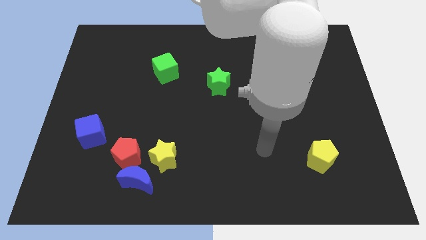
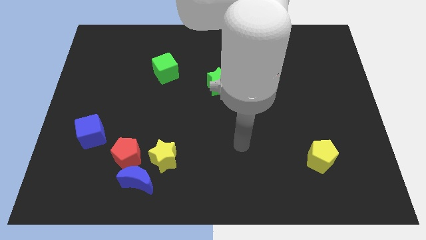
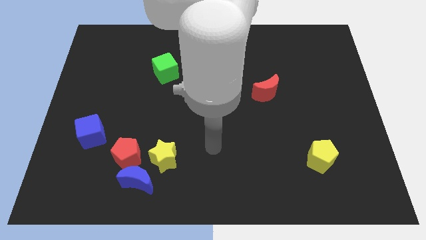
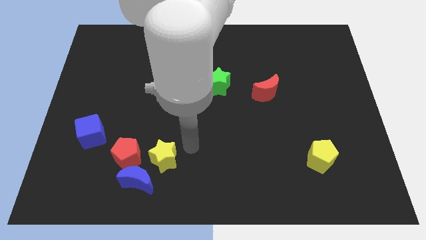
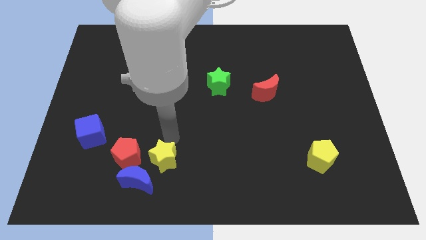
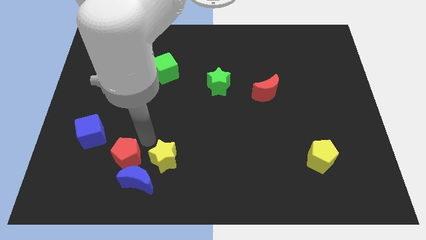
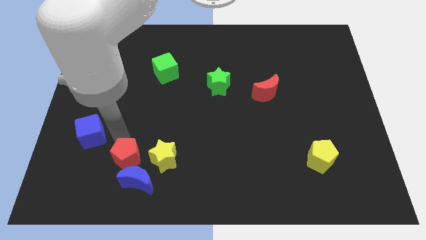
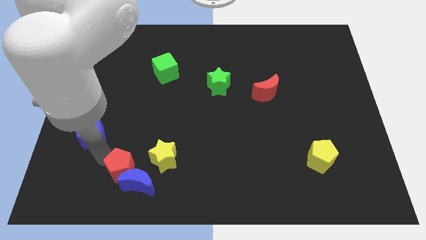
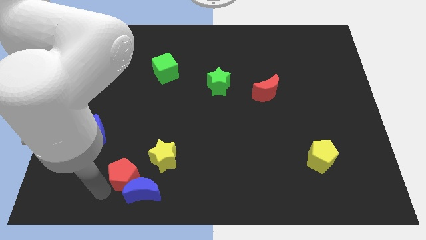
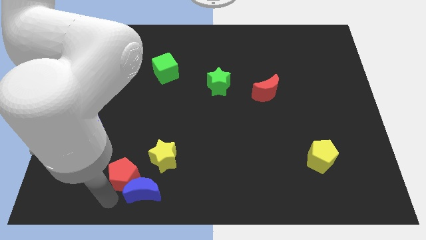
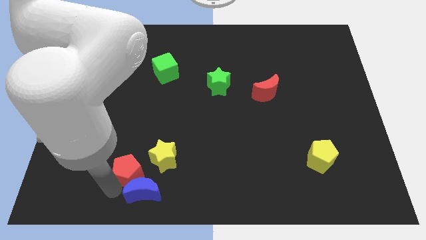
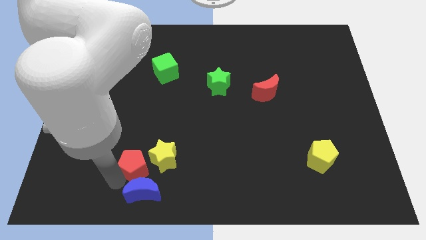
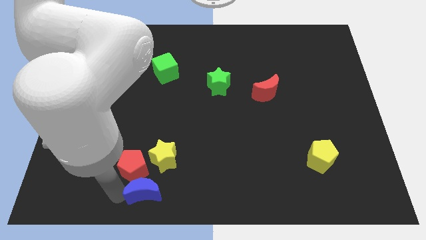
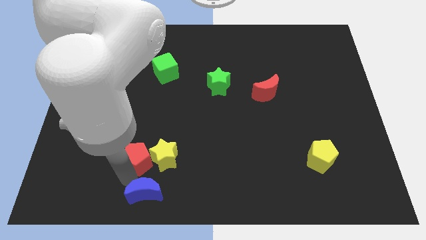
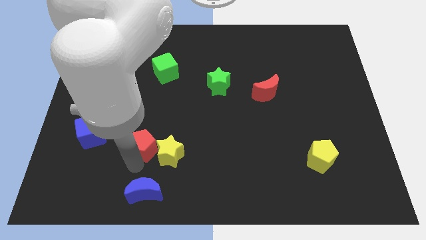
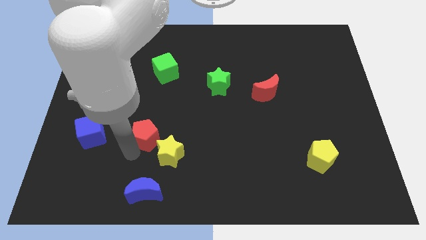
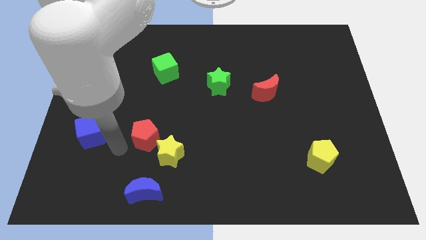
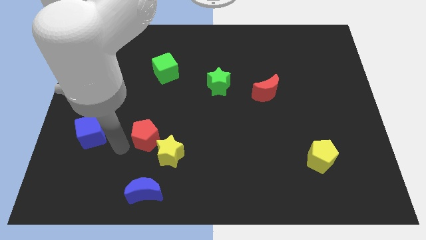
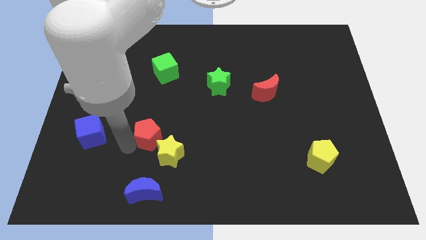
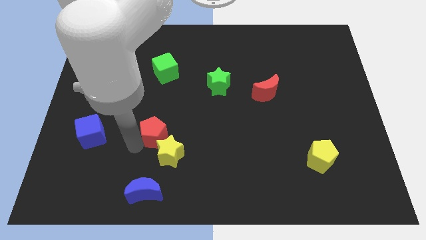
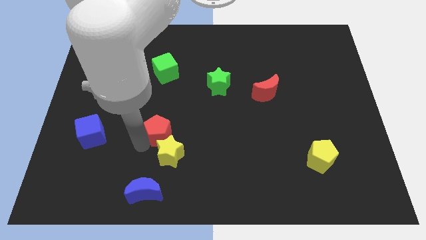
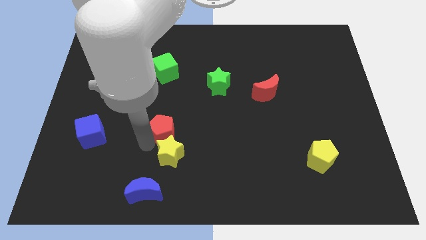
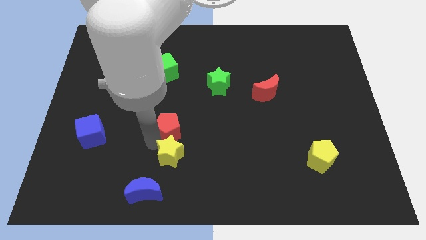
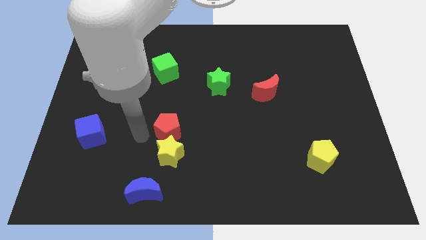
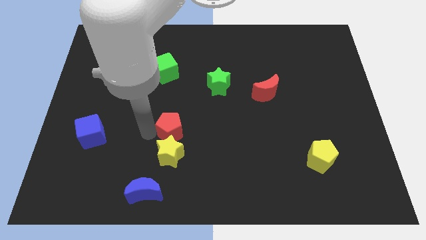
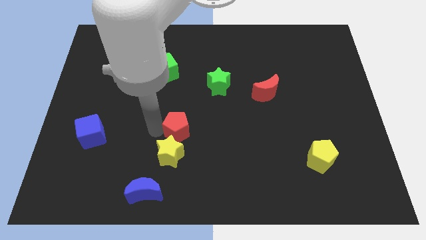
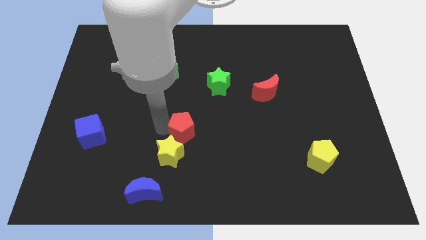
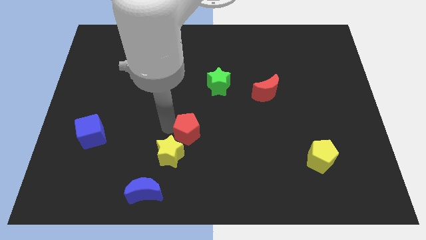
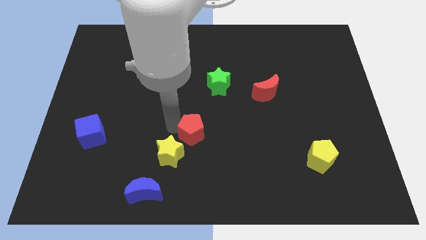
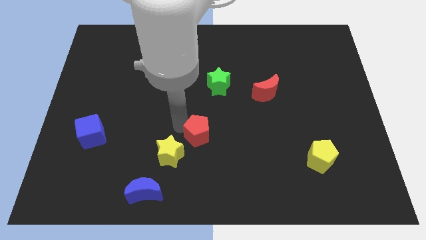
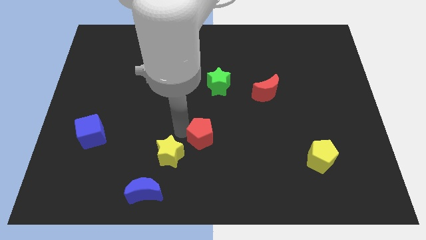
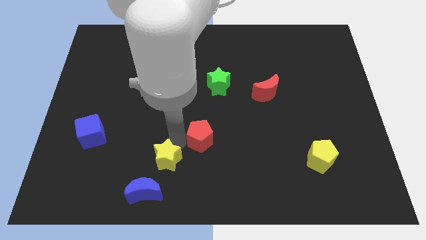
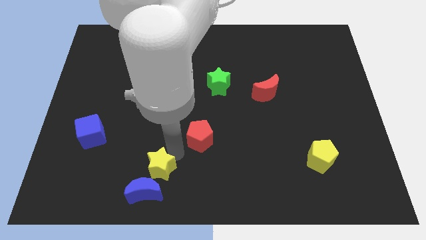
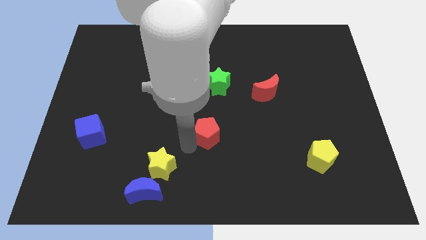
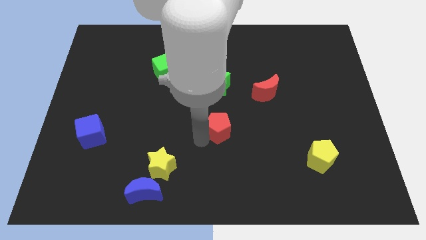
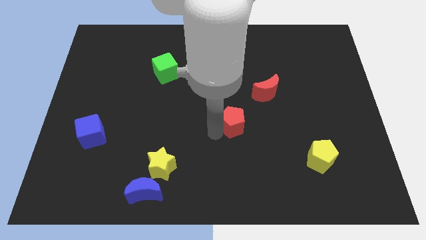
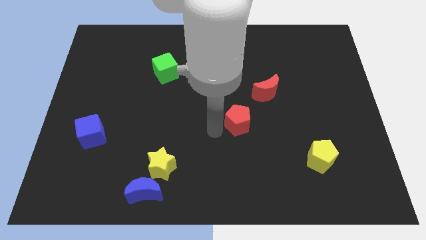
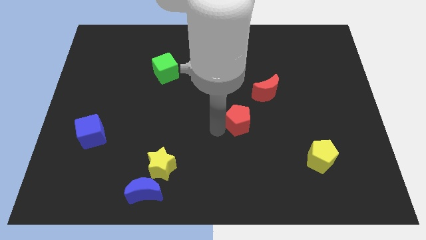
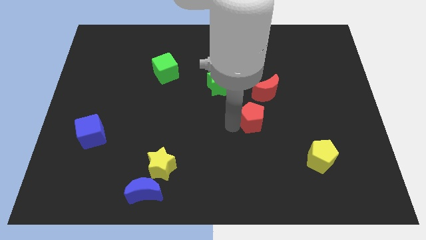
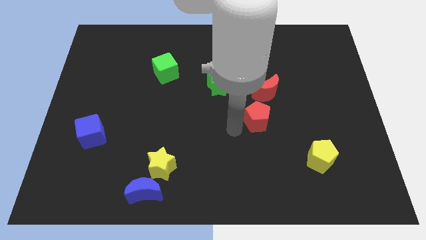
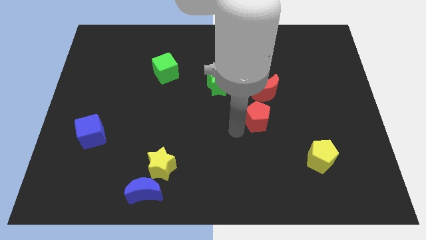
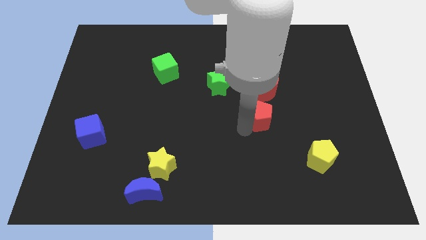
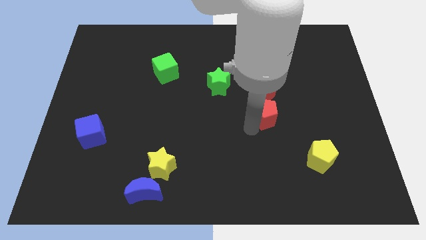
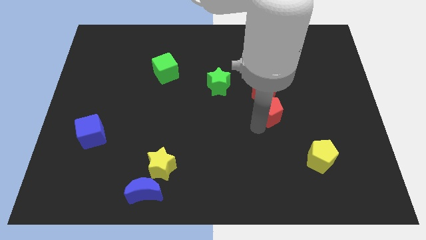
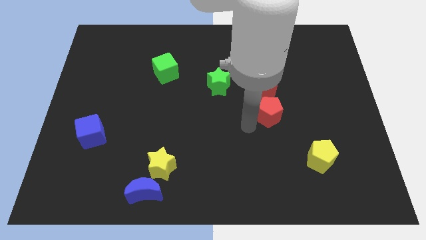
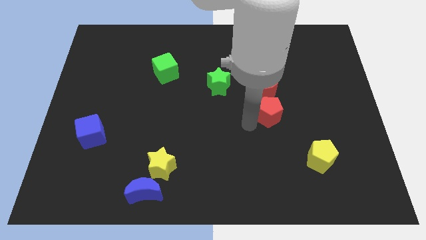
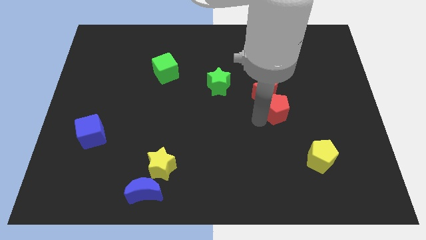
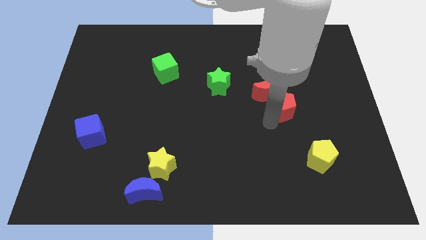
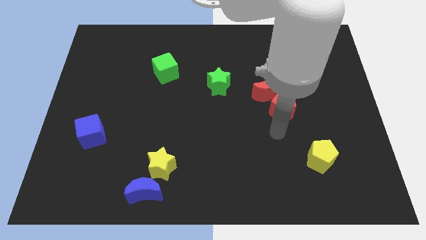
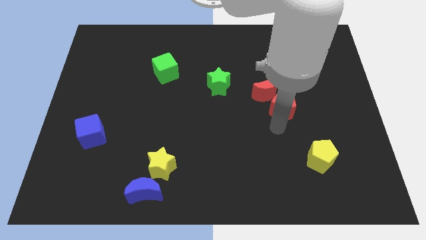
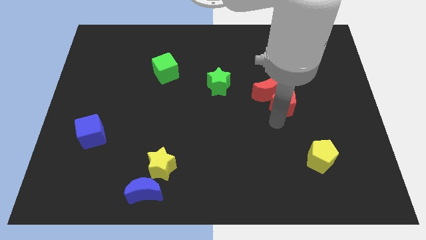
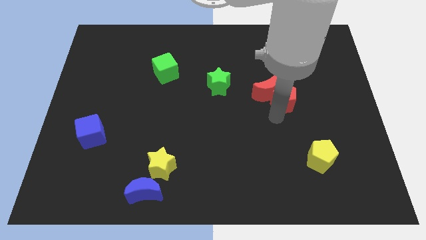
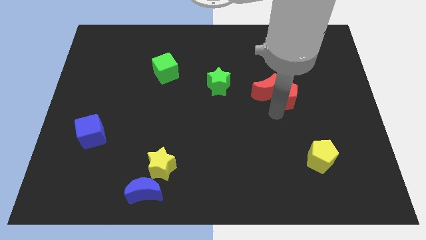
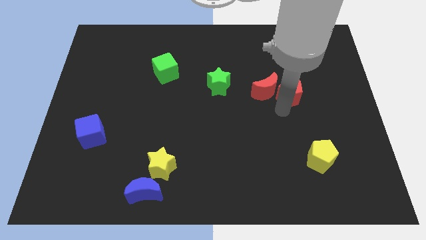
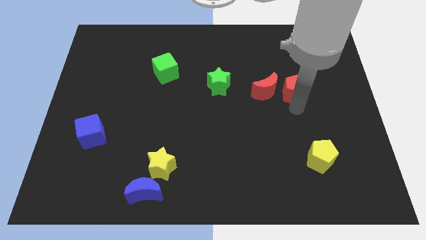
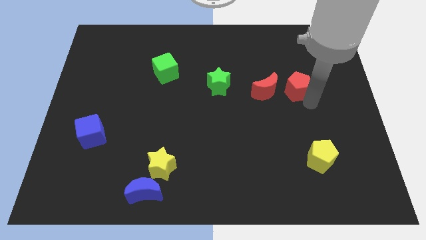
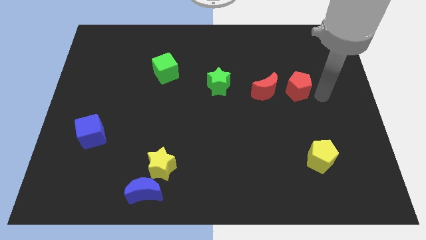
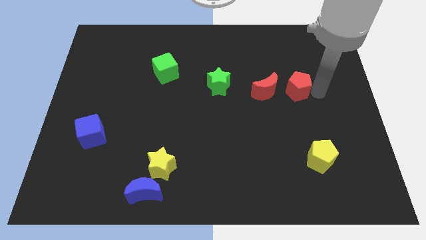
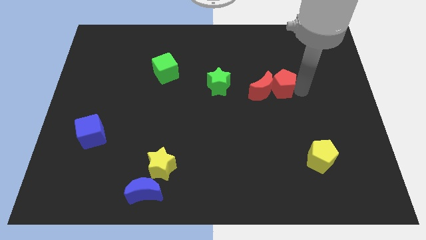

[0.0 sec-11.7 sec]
slide the red pentagon right of the green star

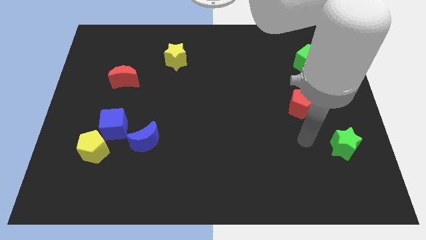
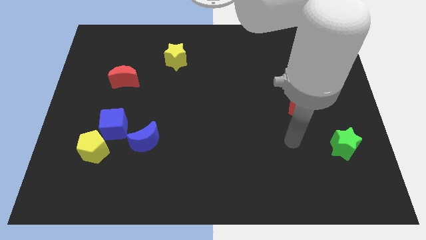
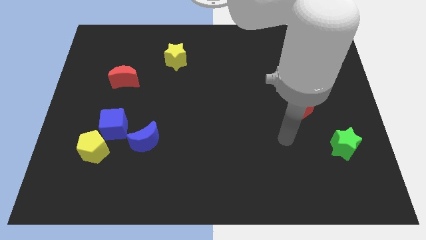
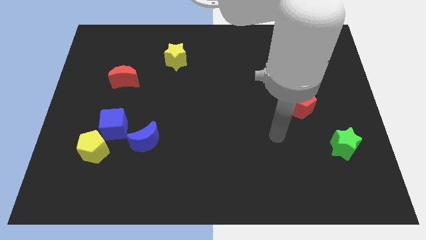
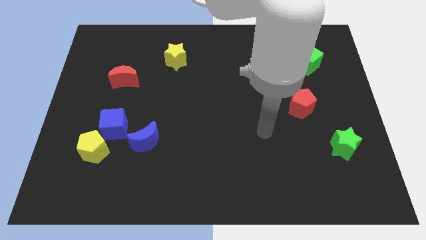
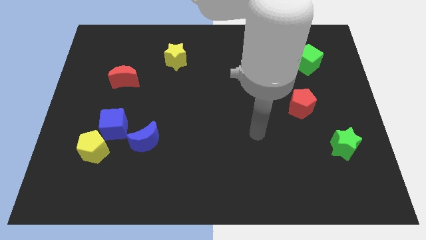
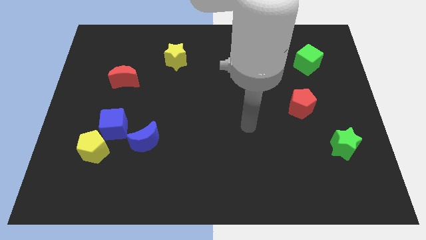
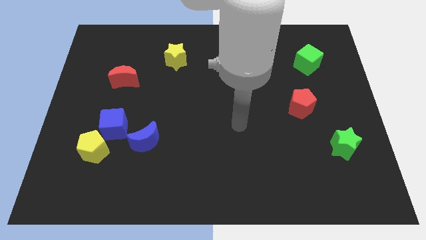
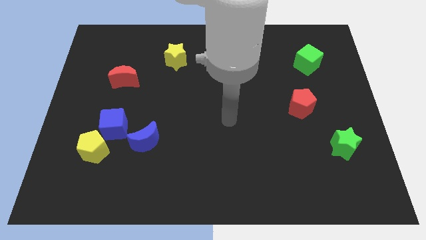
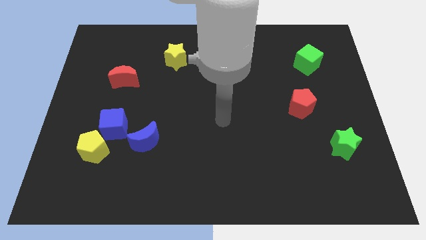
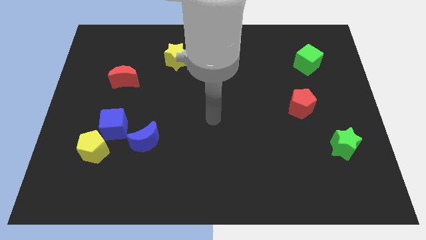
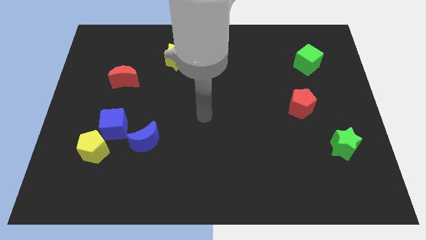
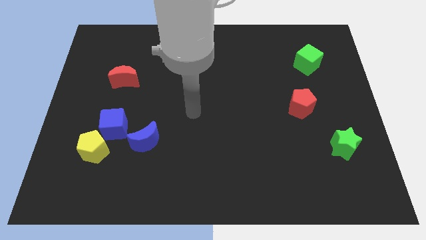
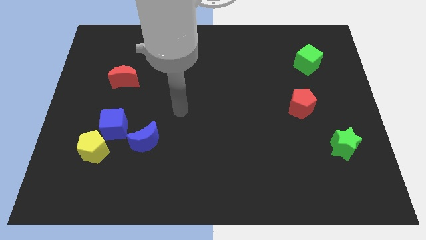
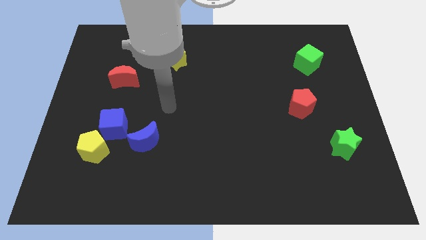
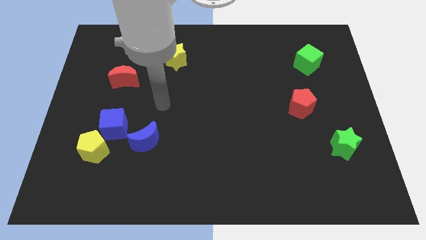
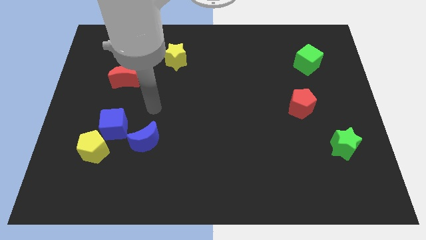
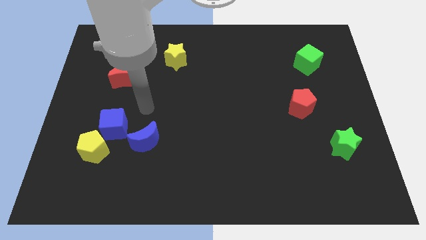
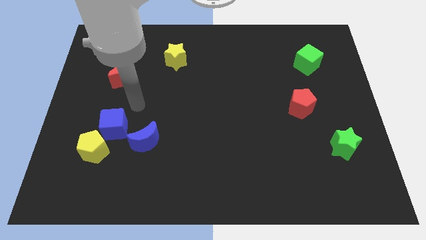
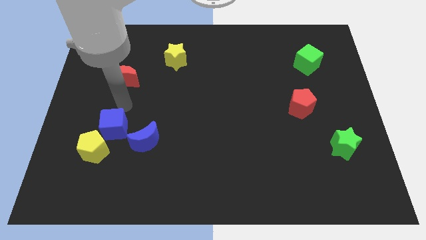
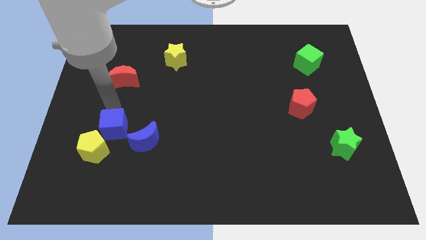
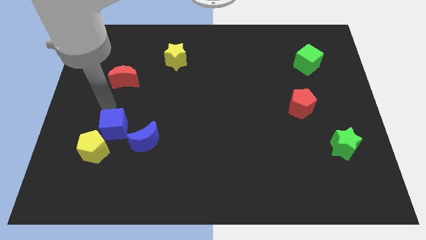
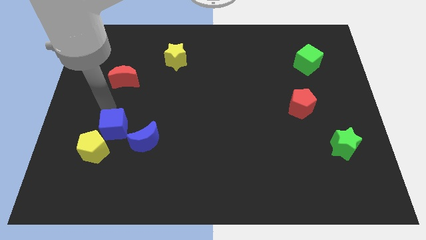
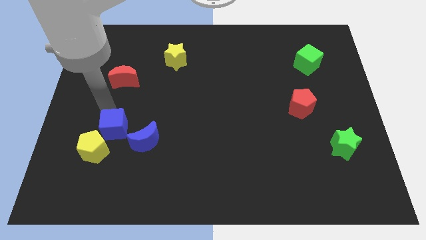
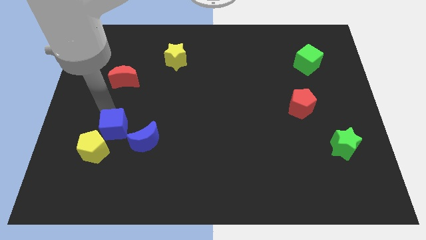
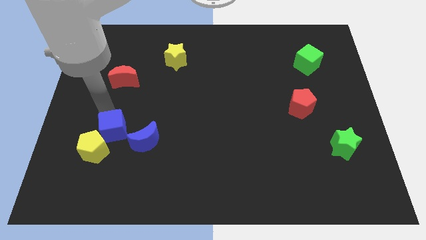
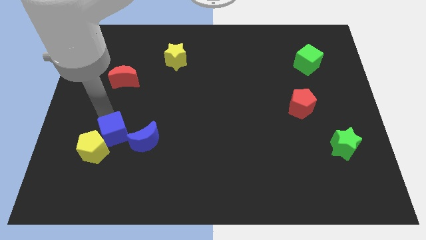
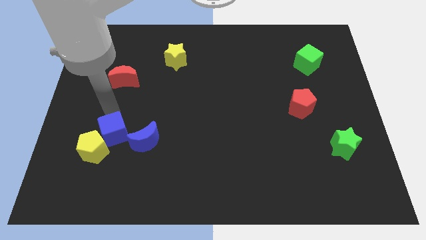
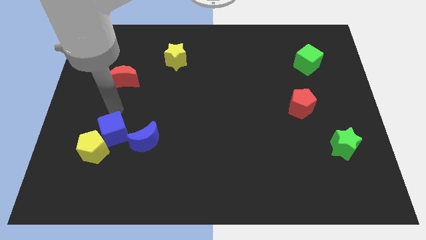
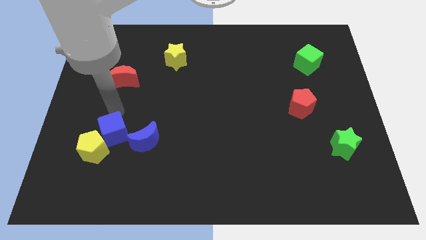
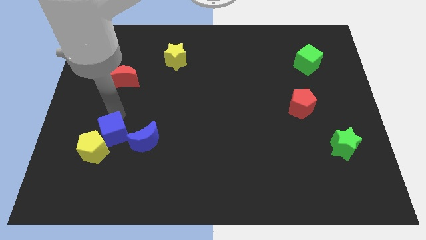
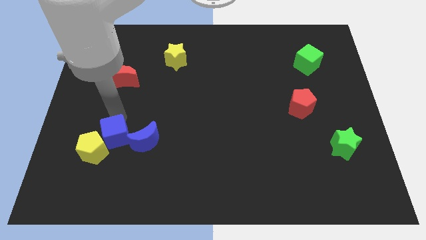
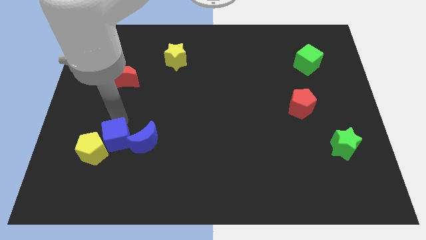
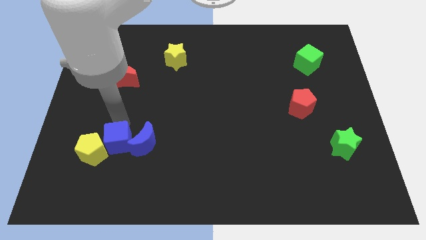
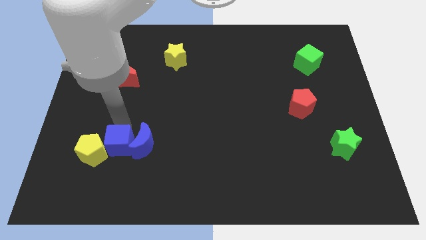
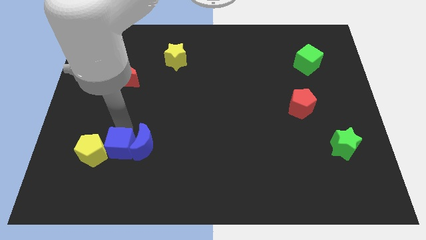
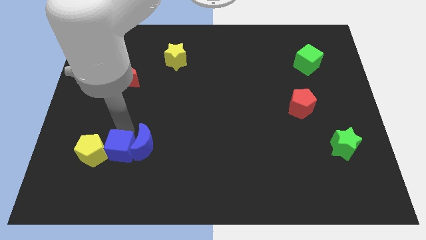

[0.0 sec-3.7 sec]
put the blue cube diagonally down and to the right of the yellow pentagon
